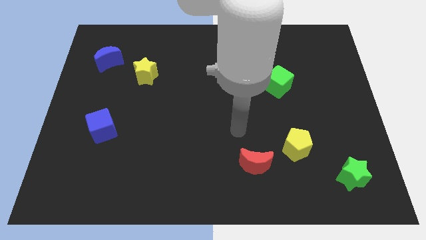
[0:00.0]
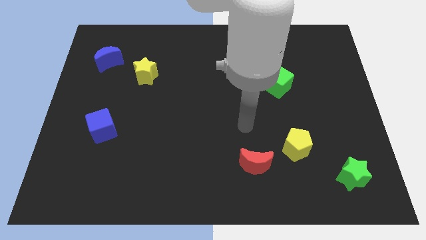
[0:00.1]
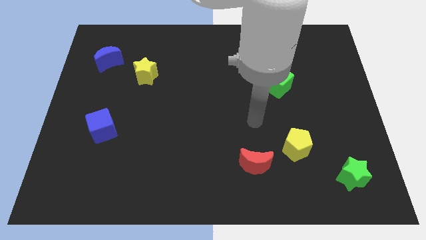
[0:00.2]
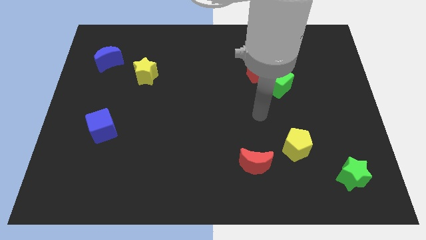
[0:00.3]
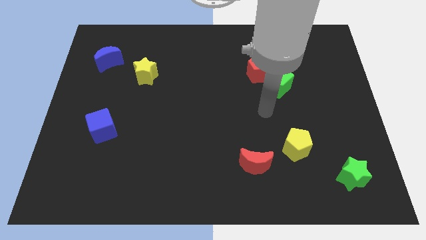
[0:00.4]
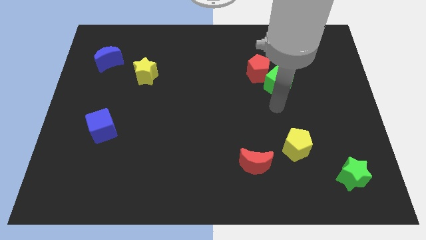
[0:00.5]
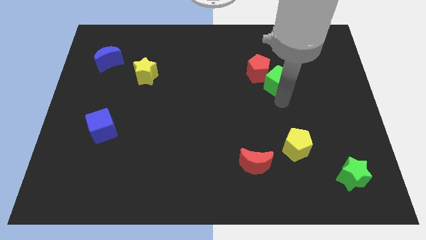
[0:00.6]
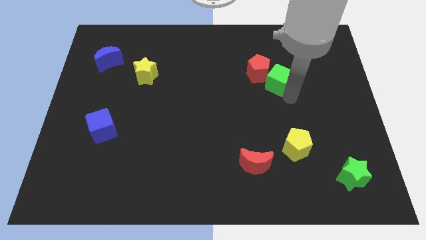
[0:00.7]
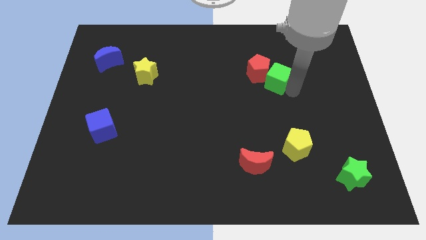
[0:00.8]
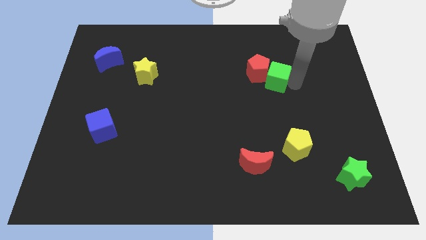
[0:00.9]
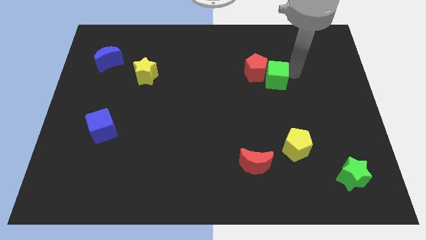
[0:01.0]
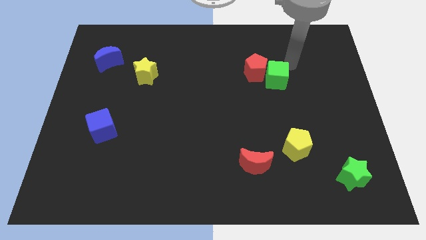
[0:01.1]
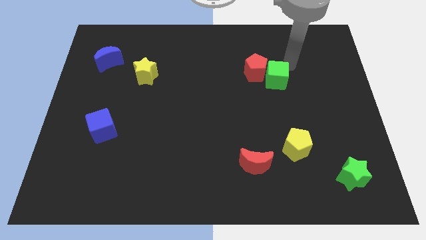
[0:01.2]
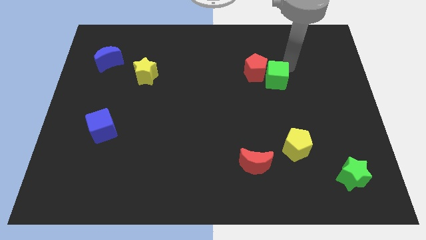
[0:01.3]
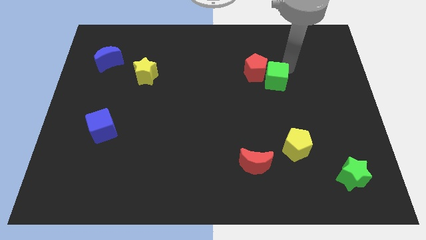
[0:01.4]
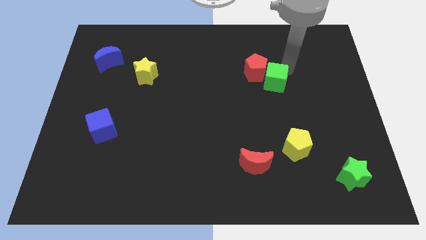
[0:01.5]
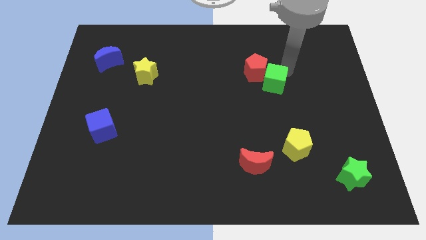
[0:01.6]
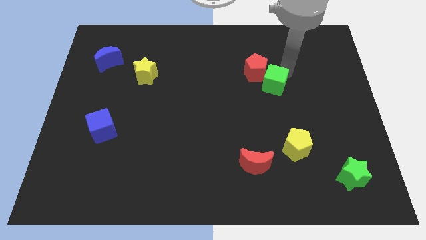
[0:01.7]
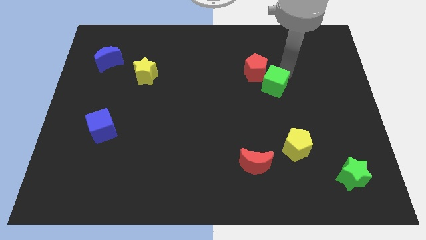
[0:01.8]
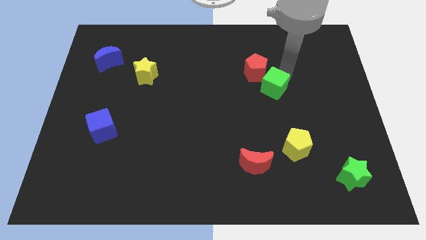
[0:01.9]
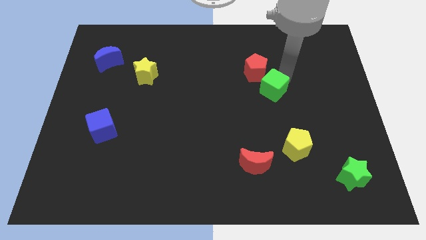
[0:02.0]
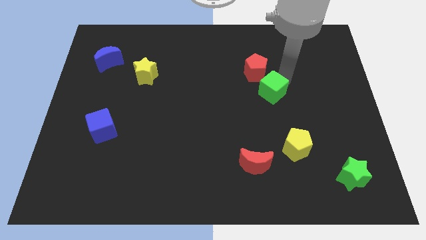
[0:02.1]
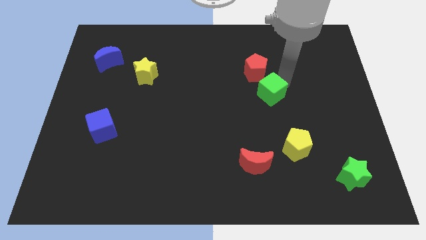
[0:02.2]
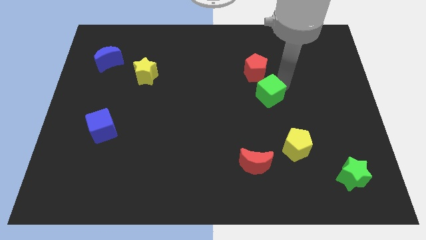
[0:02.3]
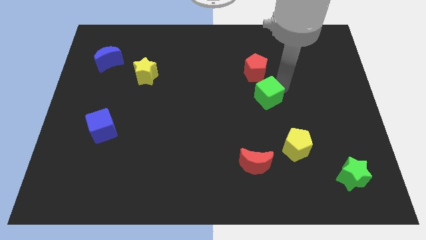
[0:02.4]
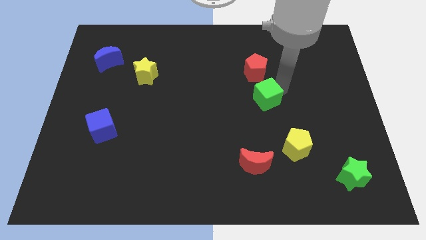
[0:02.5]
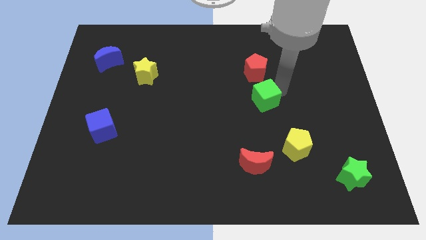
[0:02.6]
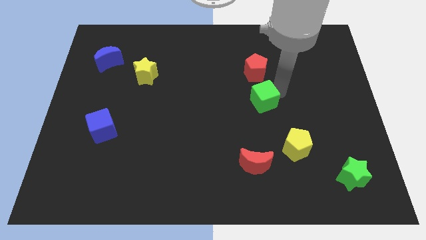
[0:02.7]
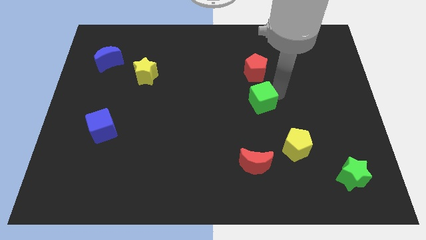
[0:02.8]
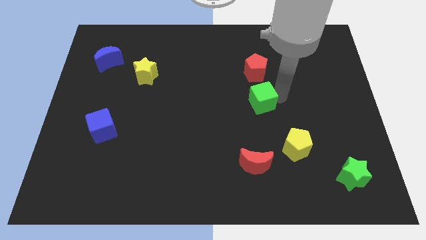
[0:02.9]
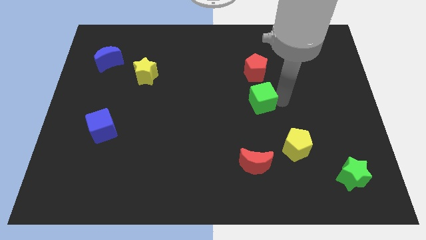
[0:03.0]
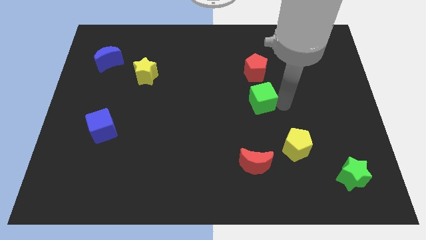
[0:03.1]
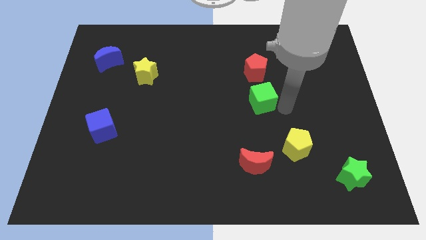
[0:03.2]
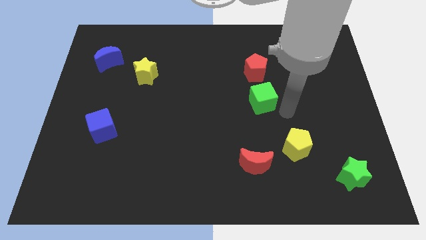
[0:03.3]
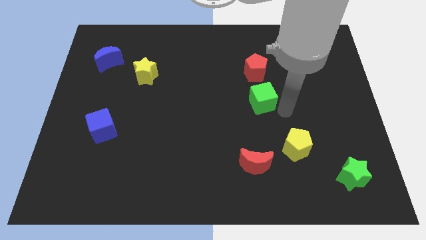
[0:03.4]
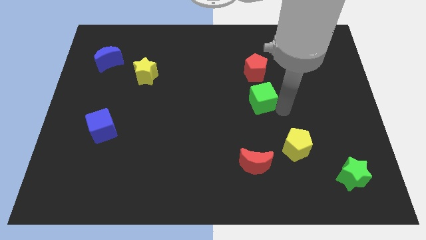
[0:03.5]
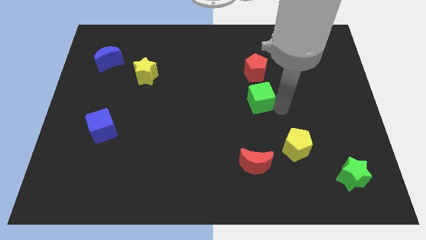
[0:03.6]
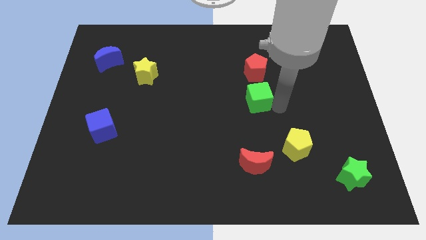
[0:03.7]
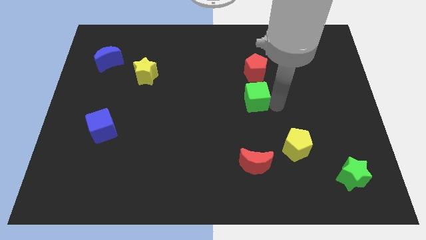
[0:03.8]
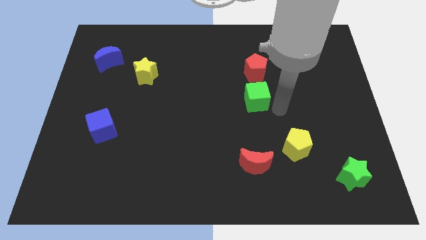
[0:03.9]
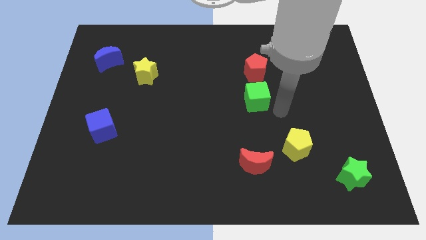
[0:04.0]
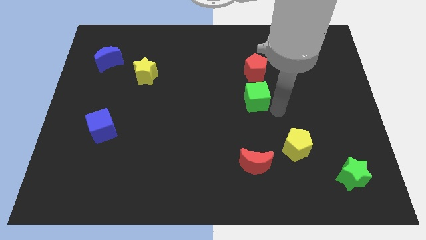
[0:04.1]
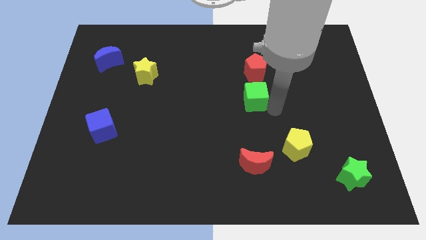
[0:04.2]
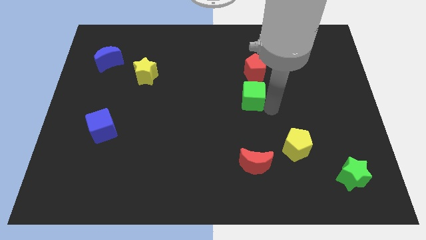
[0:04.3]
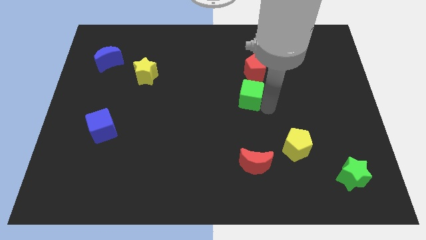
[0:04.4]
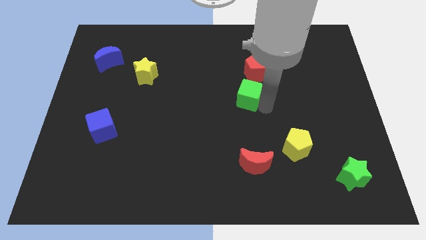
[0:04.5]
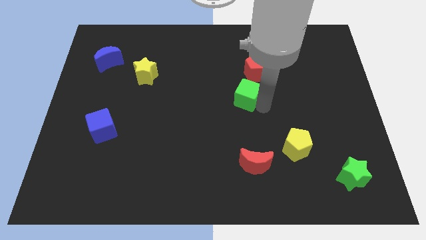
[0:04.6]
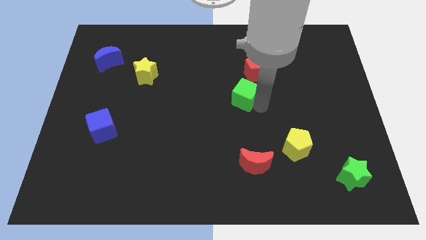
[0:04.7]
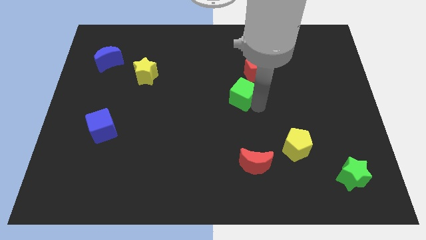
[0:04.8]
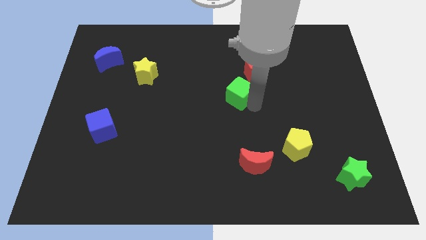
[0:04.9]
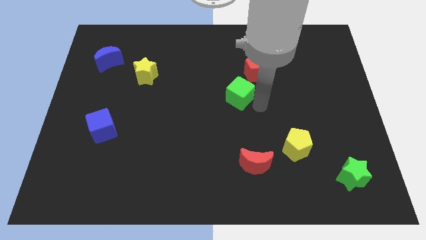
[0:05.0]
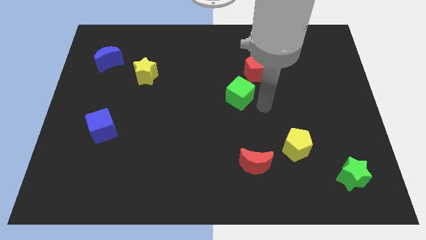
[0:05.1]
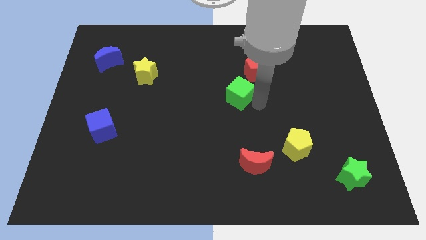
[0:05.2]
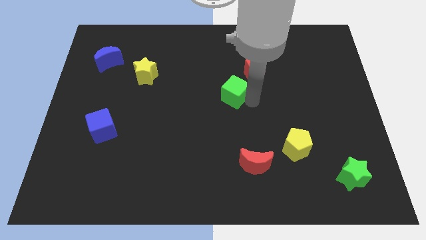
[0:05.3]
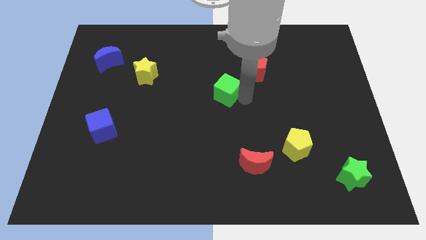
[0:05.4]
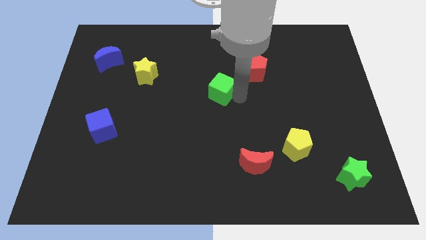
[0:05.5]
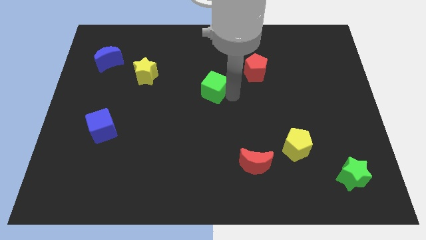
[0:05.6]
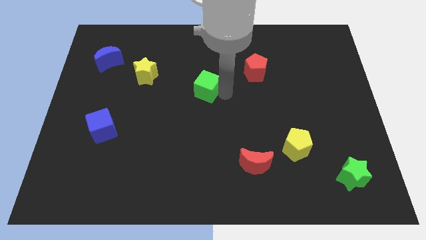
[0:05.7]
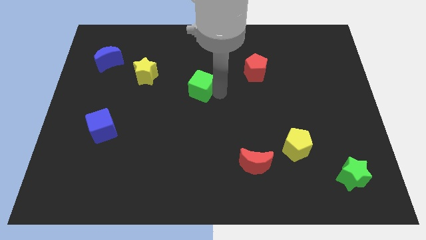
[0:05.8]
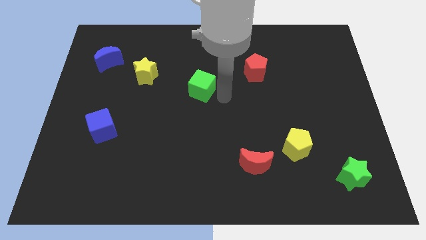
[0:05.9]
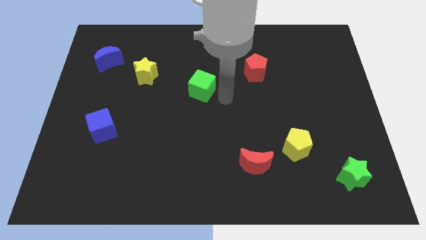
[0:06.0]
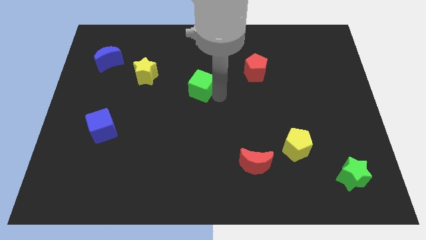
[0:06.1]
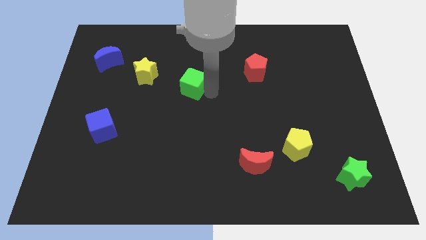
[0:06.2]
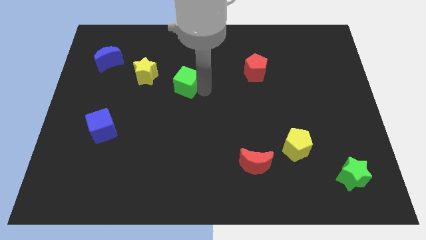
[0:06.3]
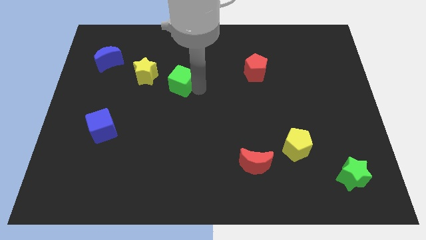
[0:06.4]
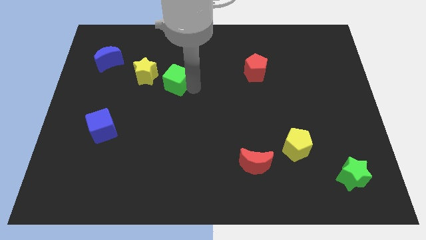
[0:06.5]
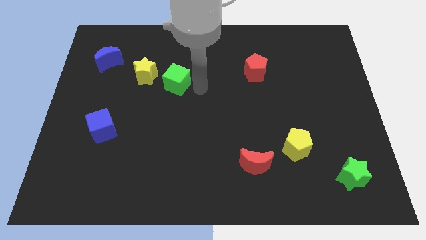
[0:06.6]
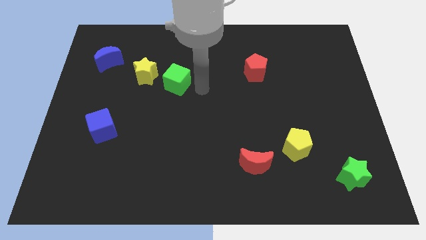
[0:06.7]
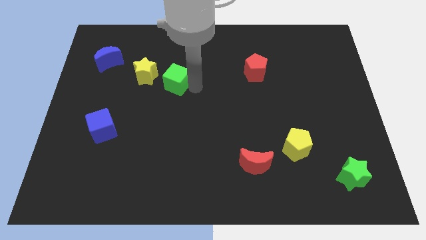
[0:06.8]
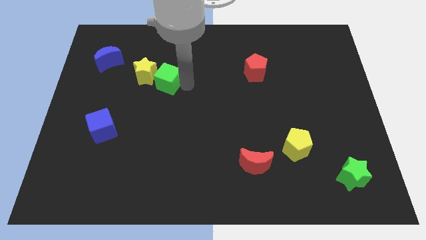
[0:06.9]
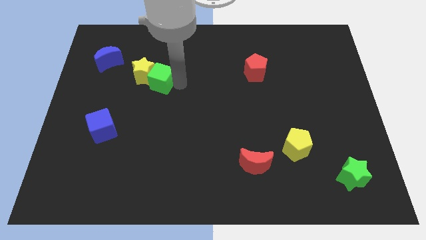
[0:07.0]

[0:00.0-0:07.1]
move the green cube towards the yellow star
